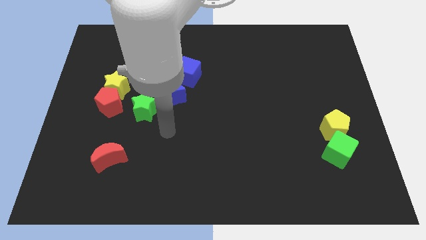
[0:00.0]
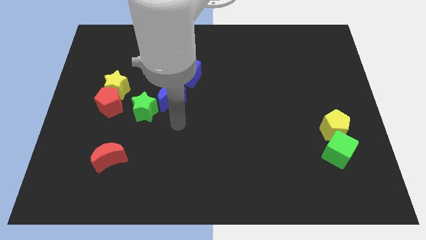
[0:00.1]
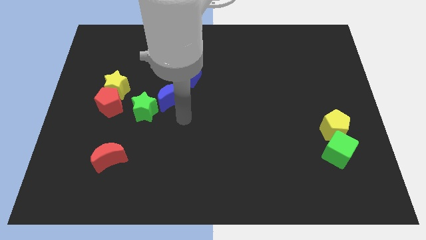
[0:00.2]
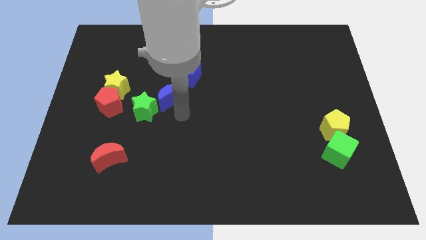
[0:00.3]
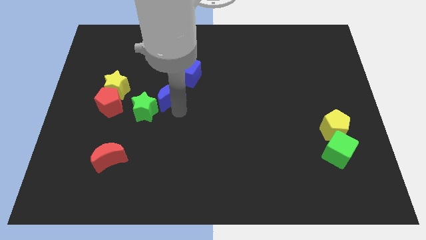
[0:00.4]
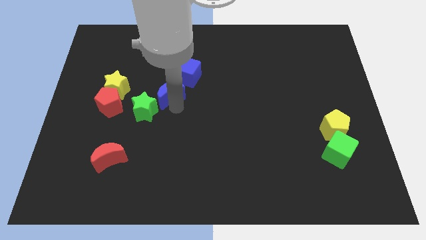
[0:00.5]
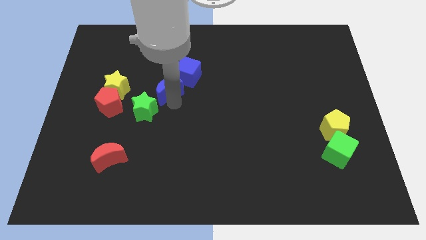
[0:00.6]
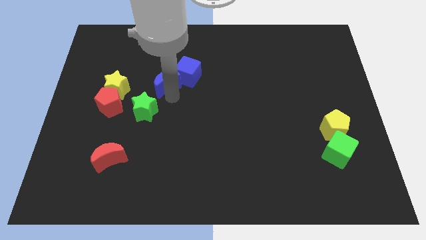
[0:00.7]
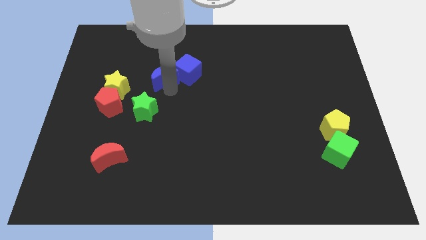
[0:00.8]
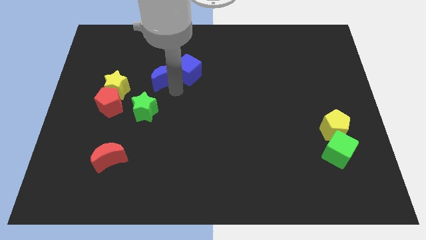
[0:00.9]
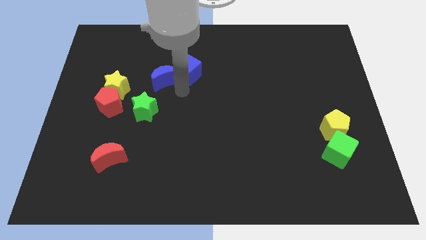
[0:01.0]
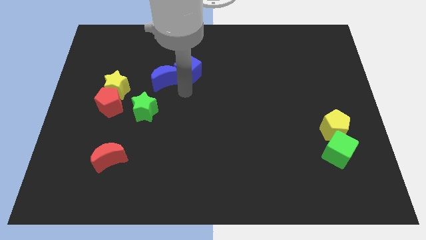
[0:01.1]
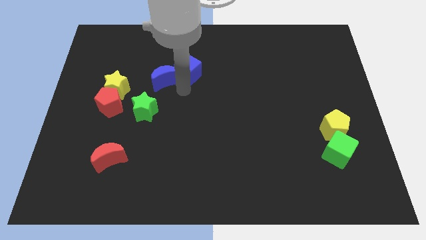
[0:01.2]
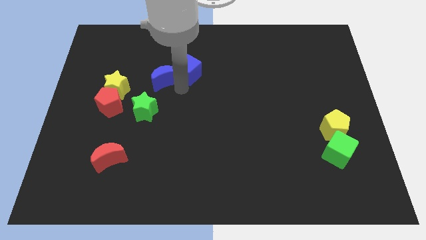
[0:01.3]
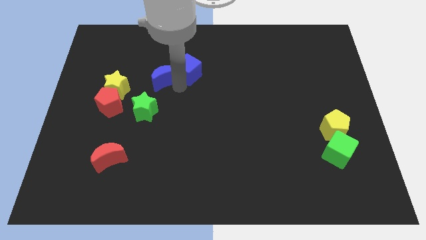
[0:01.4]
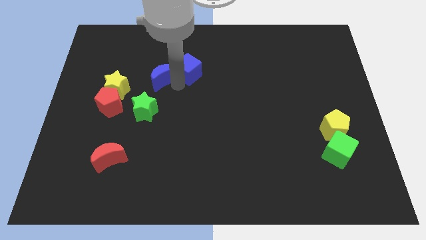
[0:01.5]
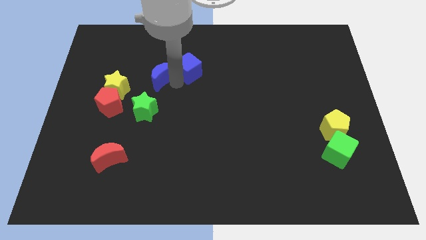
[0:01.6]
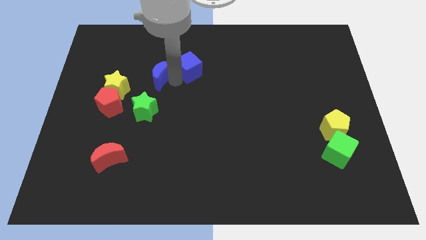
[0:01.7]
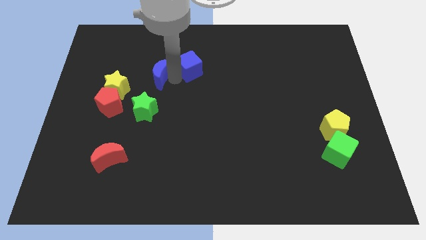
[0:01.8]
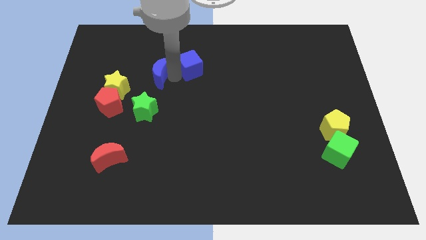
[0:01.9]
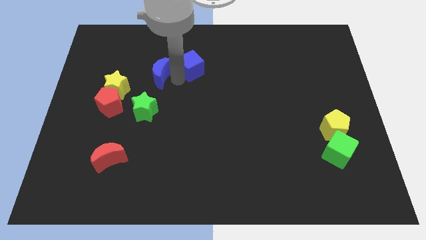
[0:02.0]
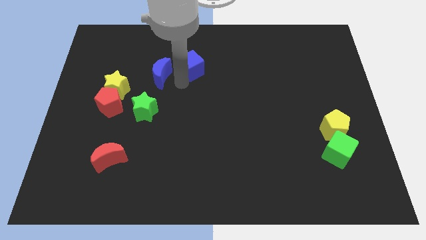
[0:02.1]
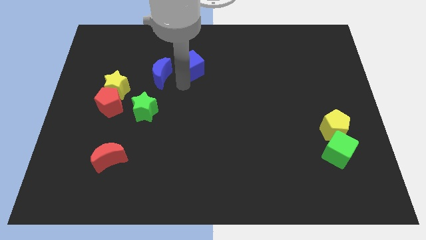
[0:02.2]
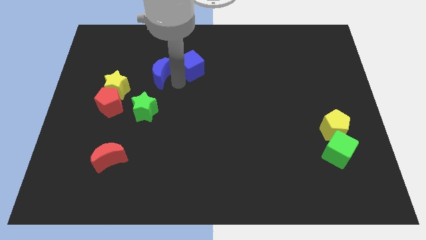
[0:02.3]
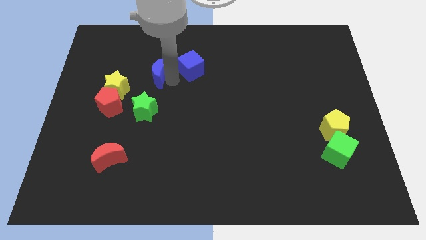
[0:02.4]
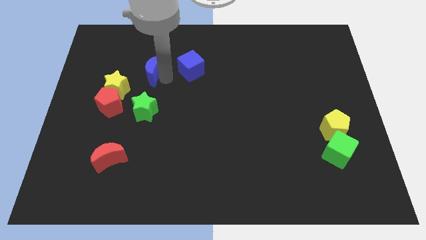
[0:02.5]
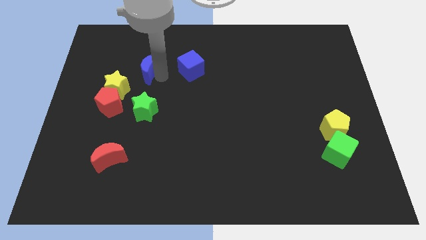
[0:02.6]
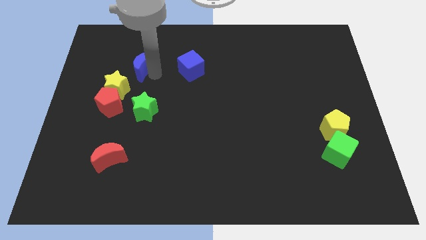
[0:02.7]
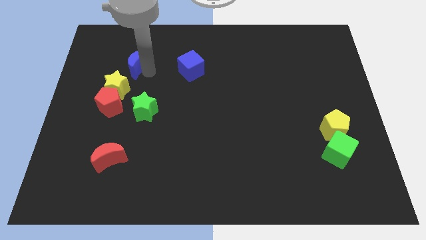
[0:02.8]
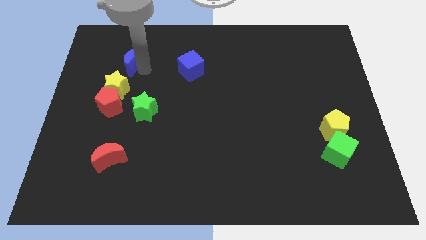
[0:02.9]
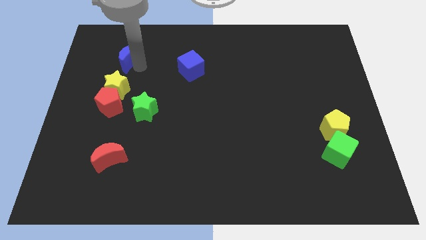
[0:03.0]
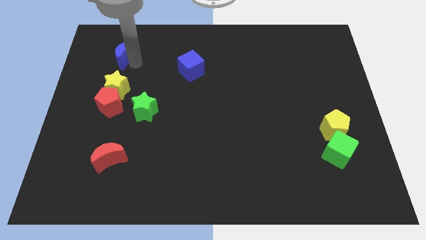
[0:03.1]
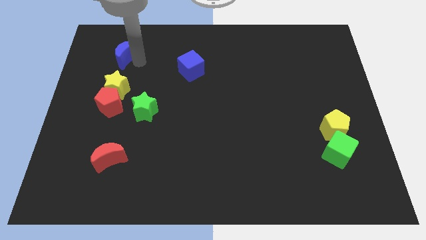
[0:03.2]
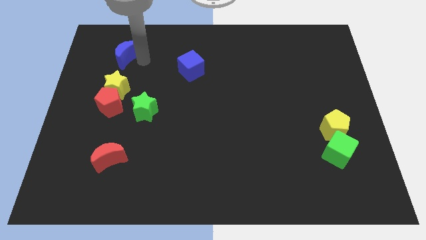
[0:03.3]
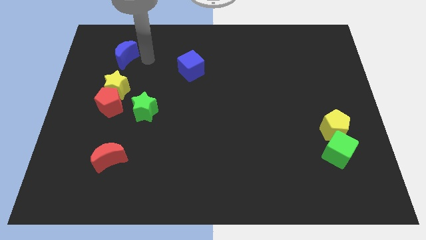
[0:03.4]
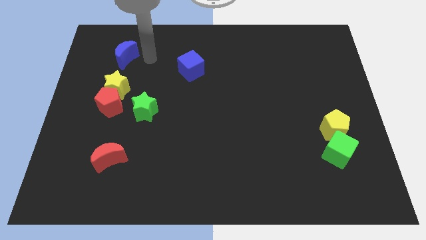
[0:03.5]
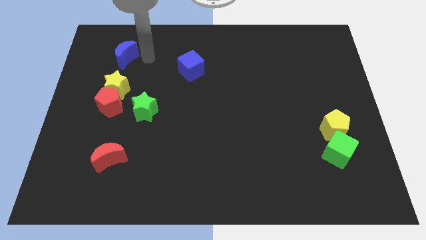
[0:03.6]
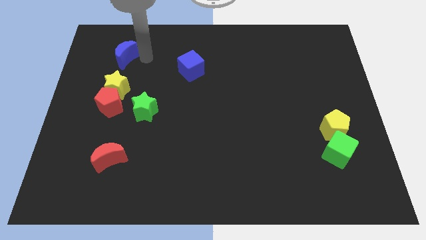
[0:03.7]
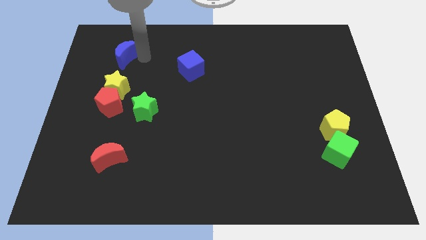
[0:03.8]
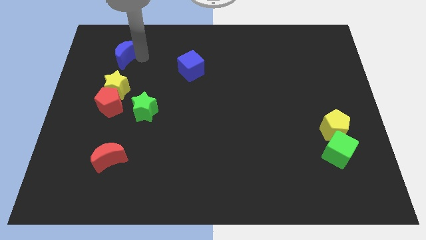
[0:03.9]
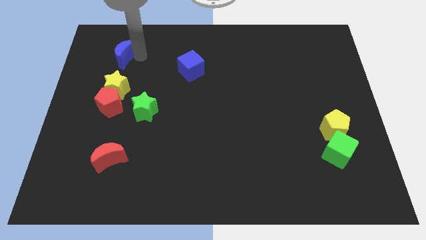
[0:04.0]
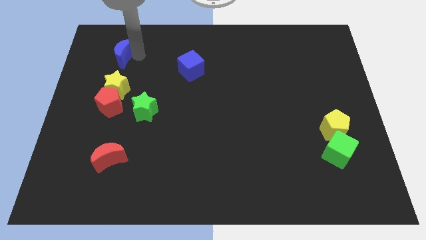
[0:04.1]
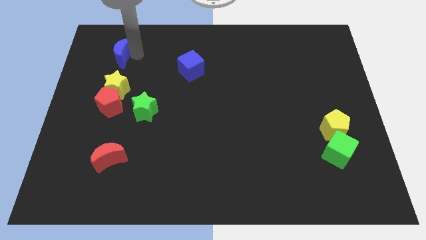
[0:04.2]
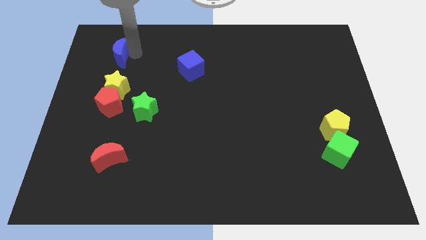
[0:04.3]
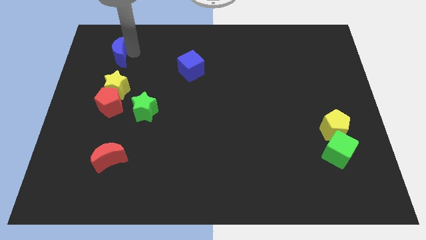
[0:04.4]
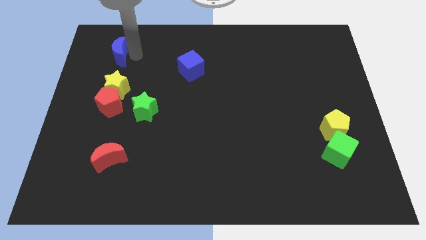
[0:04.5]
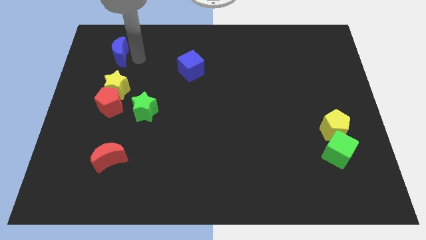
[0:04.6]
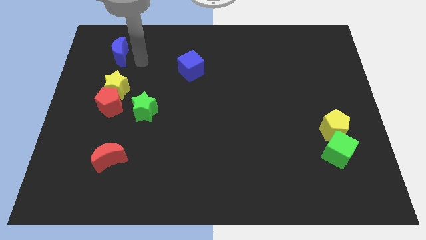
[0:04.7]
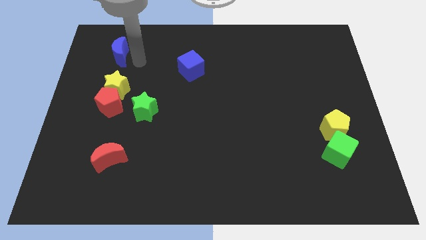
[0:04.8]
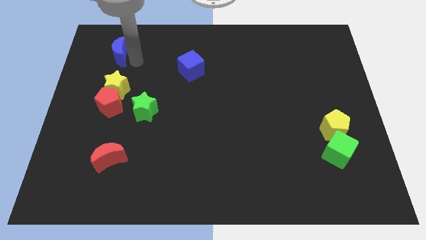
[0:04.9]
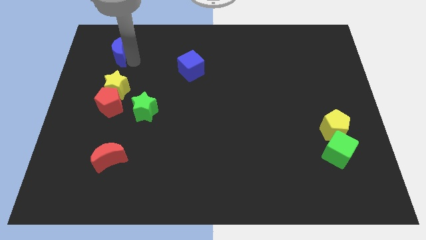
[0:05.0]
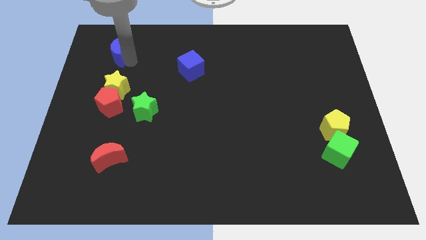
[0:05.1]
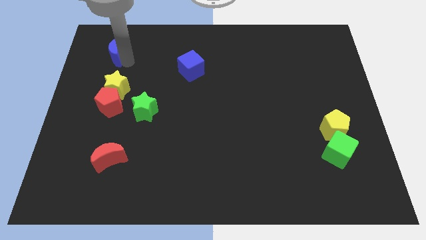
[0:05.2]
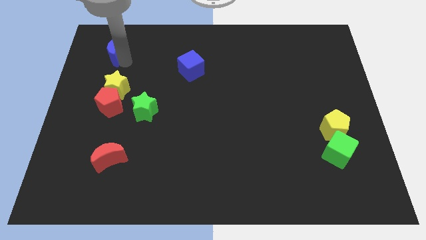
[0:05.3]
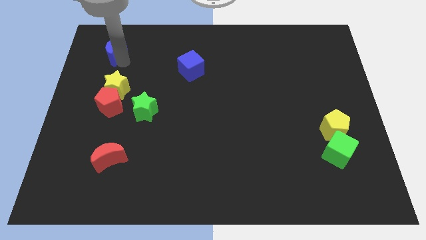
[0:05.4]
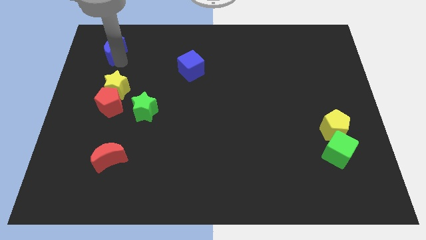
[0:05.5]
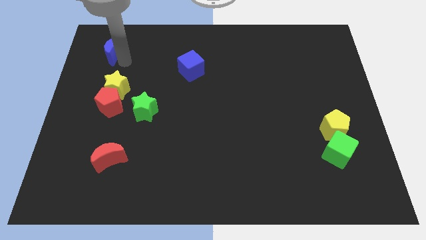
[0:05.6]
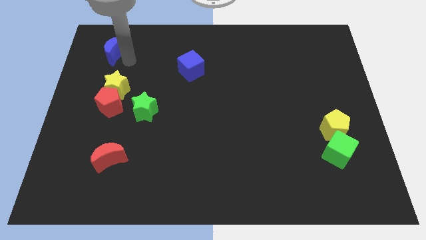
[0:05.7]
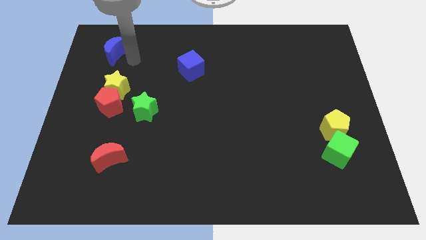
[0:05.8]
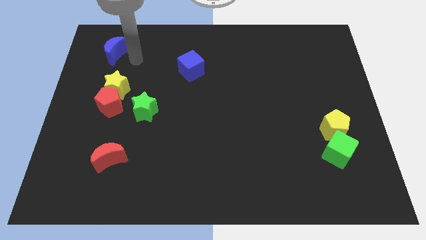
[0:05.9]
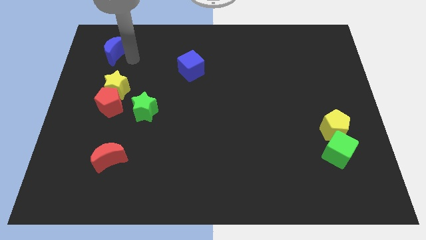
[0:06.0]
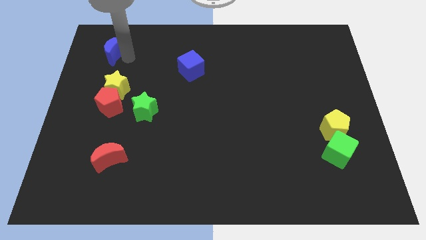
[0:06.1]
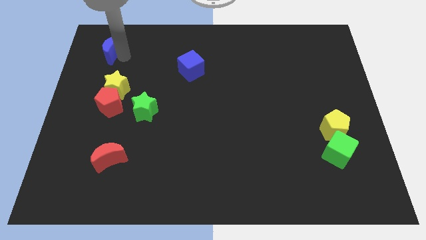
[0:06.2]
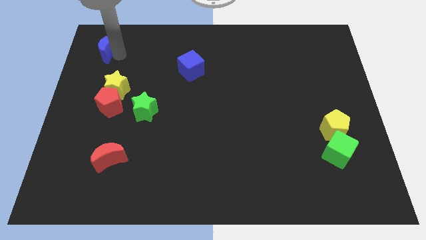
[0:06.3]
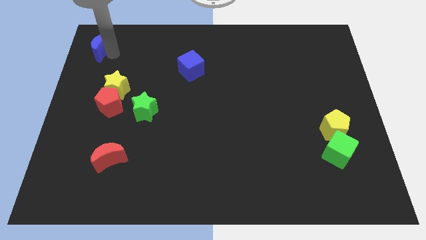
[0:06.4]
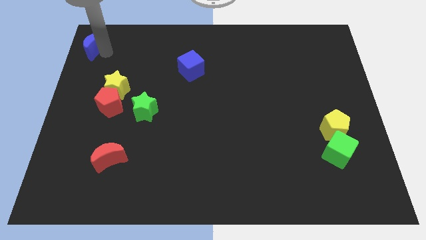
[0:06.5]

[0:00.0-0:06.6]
push the blue moon to the top left corner
